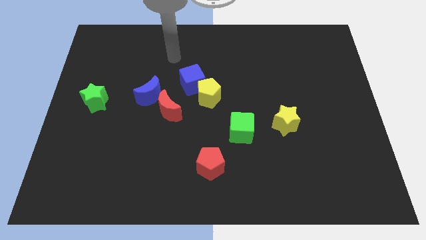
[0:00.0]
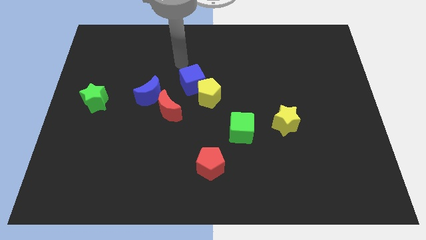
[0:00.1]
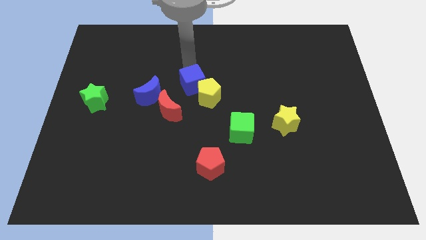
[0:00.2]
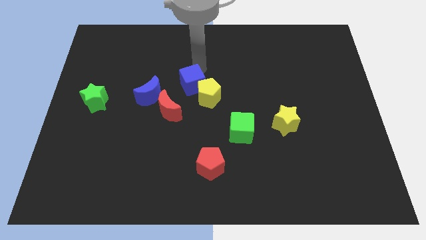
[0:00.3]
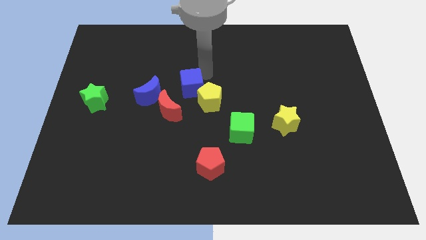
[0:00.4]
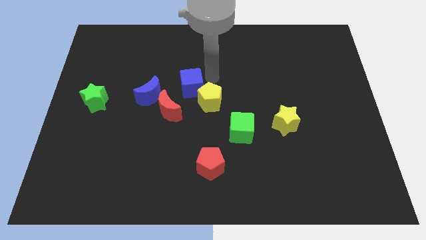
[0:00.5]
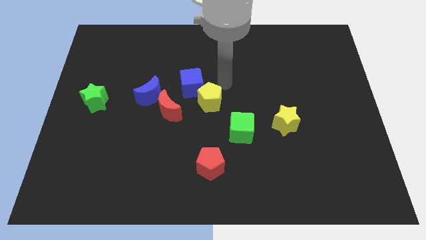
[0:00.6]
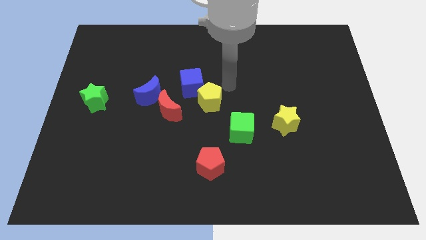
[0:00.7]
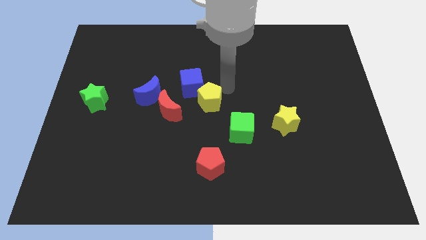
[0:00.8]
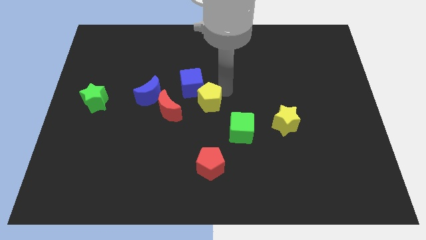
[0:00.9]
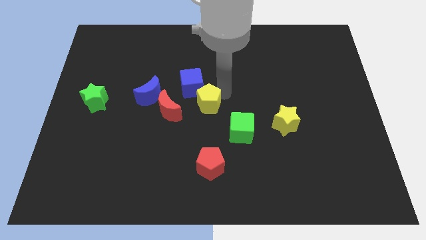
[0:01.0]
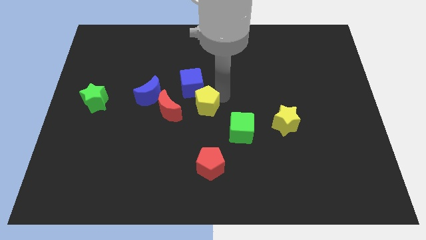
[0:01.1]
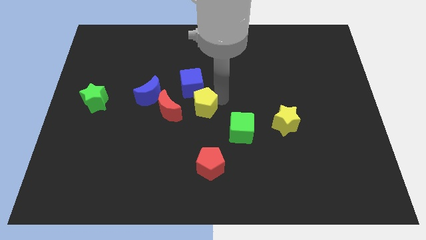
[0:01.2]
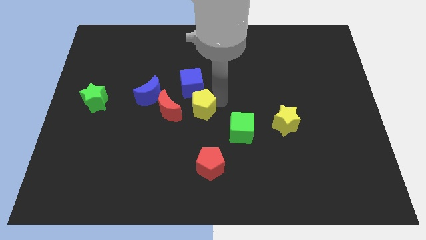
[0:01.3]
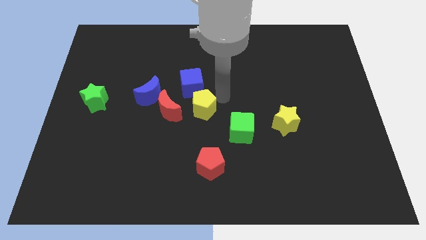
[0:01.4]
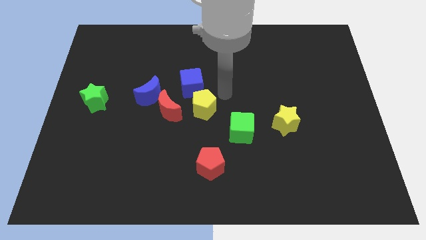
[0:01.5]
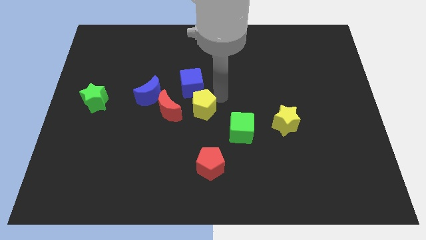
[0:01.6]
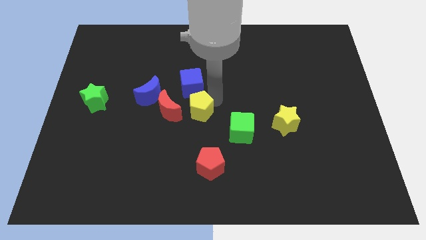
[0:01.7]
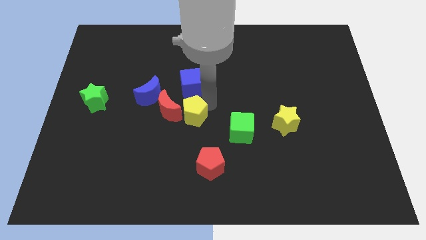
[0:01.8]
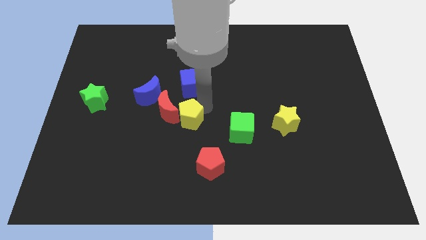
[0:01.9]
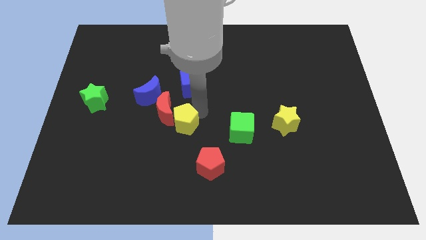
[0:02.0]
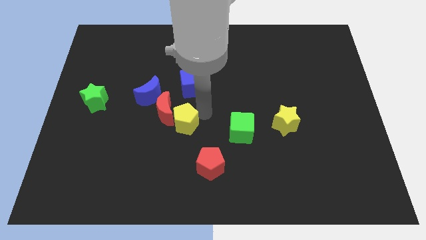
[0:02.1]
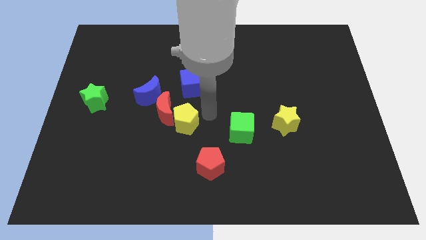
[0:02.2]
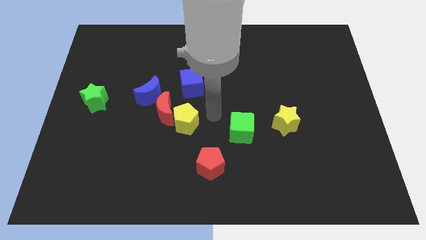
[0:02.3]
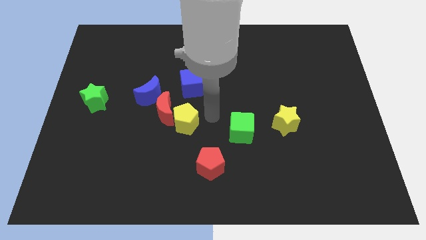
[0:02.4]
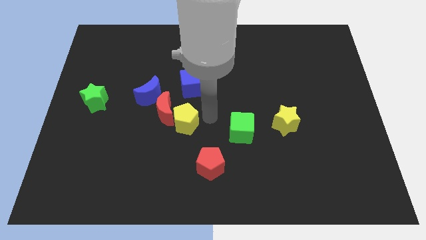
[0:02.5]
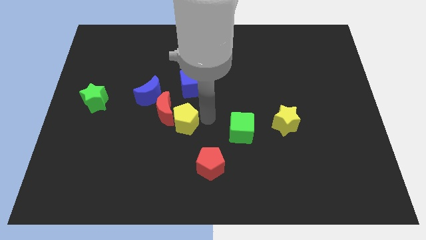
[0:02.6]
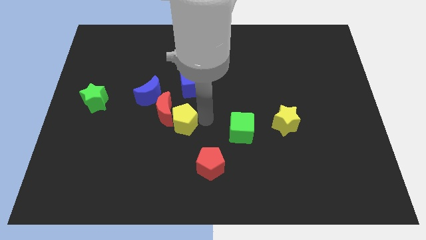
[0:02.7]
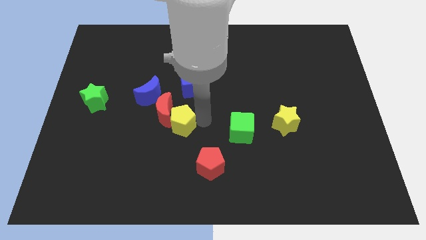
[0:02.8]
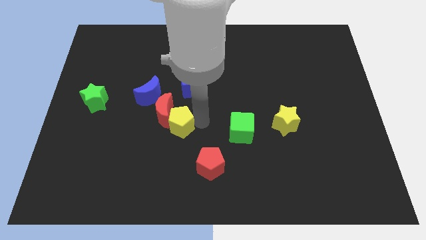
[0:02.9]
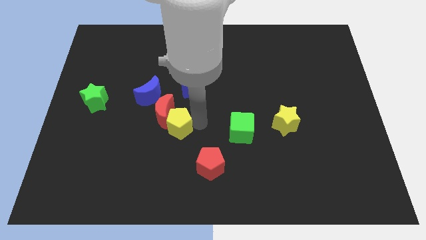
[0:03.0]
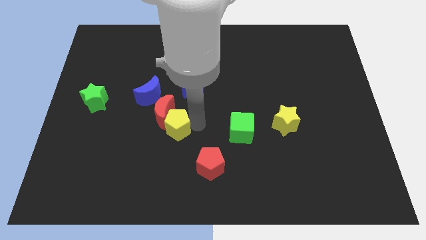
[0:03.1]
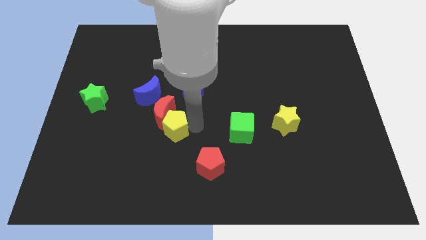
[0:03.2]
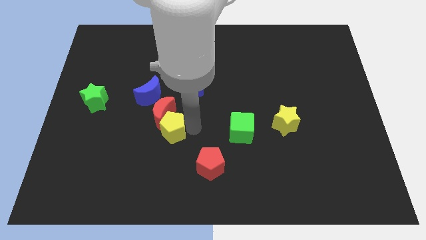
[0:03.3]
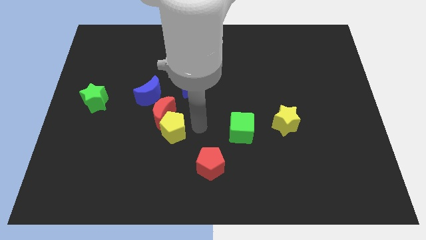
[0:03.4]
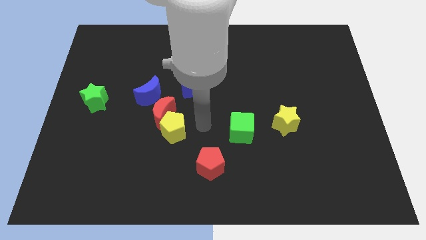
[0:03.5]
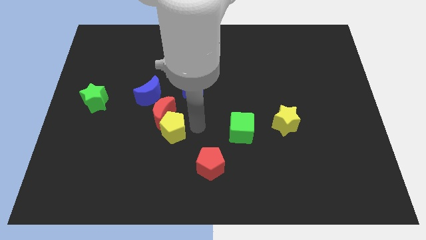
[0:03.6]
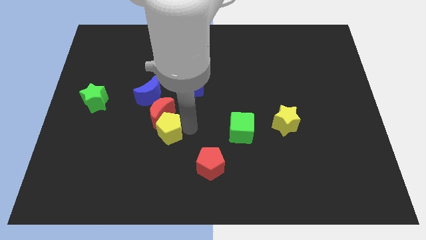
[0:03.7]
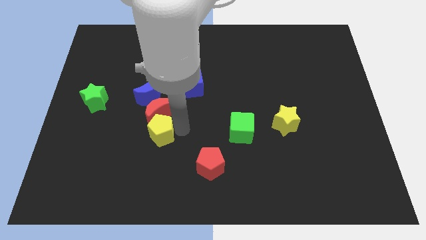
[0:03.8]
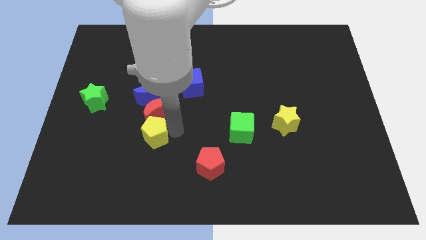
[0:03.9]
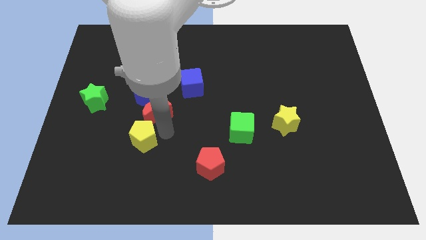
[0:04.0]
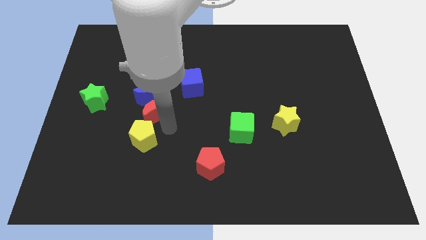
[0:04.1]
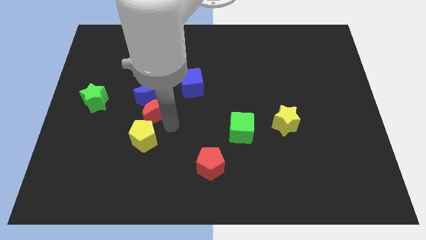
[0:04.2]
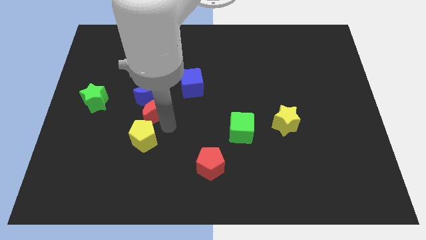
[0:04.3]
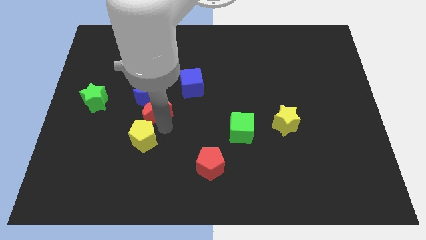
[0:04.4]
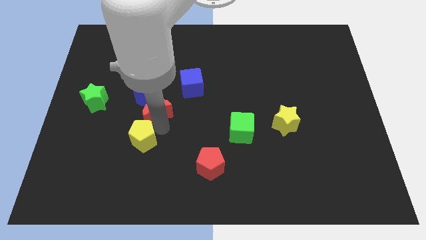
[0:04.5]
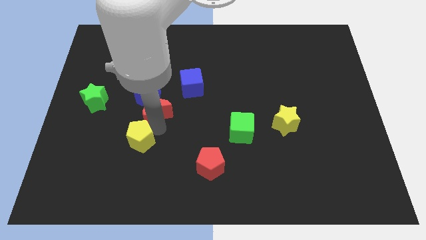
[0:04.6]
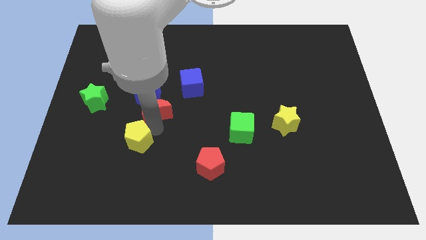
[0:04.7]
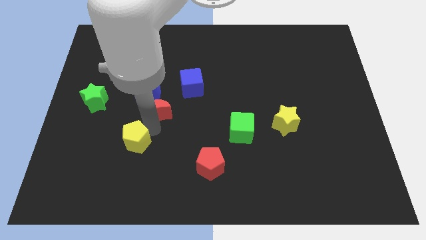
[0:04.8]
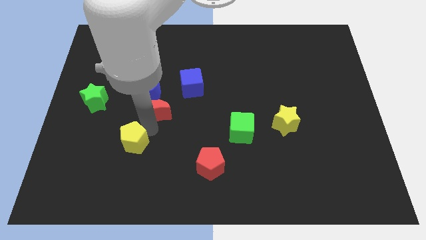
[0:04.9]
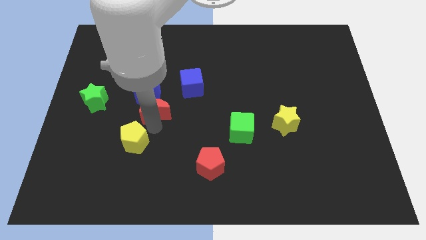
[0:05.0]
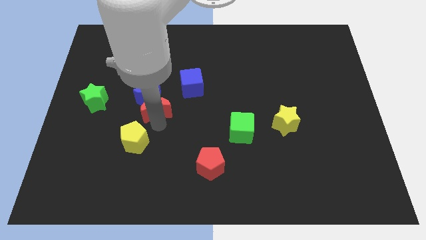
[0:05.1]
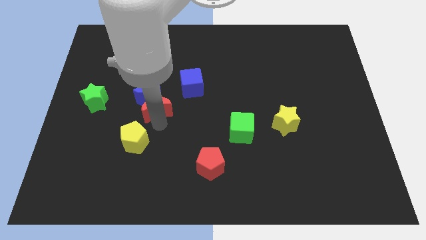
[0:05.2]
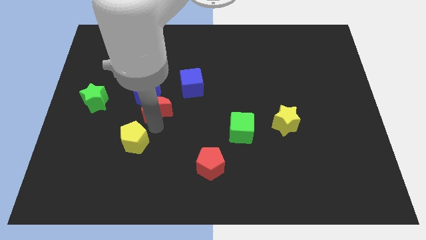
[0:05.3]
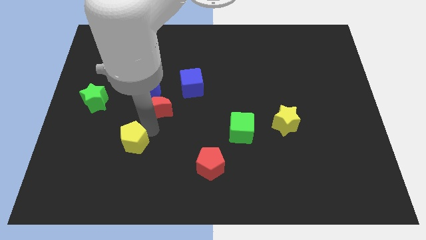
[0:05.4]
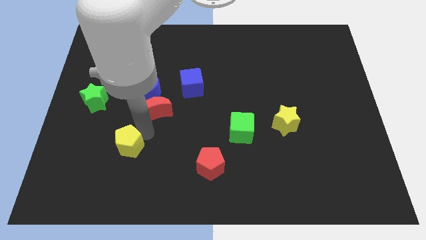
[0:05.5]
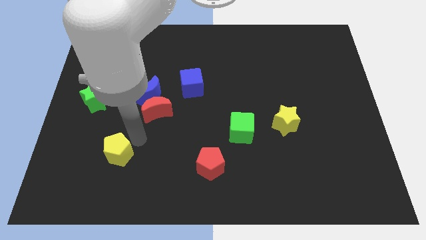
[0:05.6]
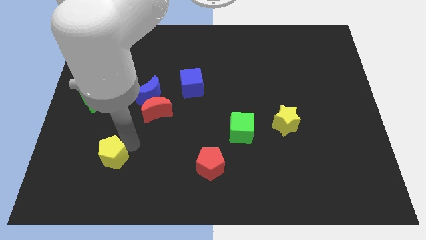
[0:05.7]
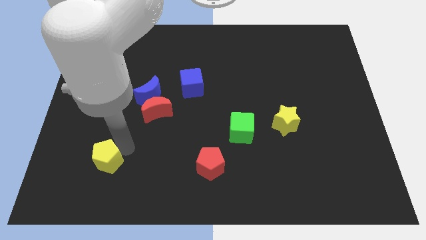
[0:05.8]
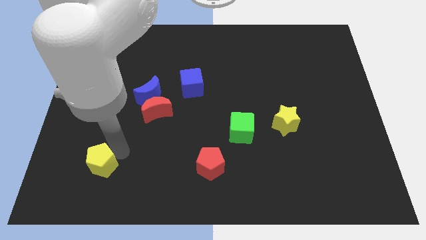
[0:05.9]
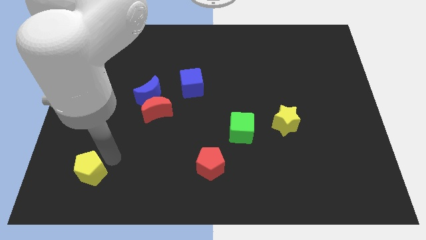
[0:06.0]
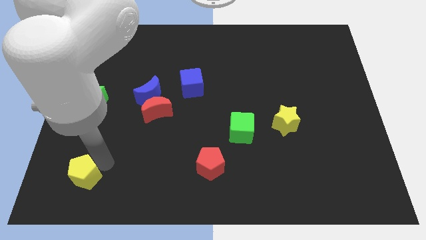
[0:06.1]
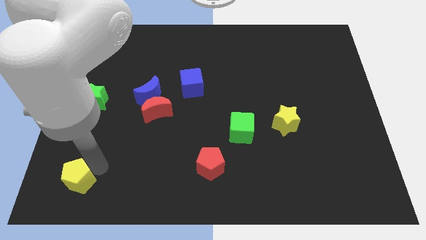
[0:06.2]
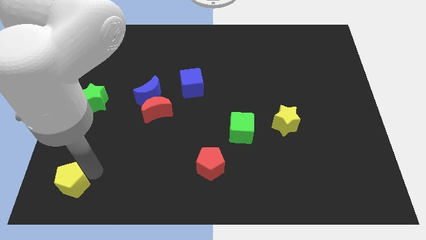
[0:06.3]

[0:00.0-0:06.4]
slide the yellow pentagon to the bottom left of the board

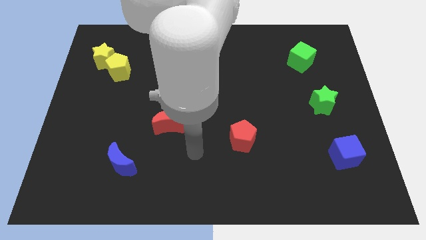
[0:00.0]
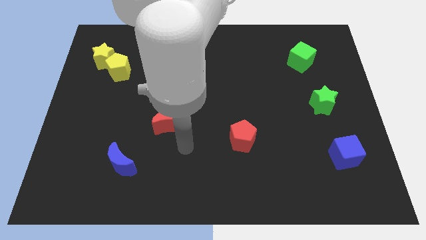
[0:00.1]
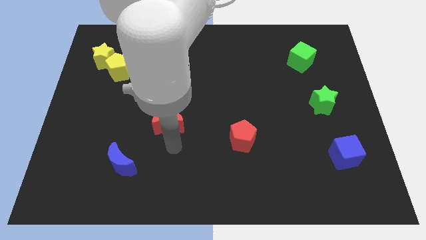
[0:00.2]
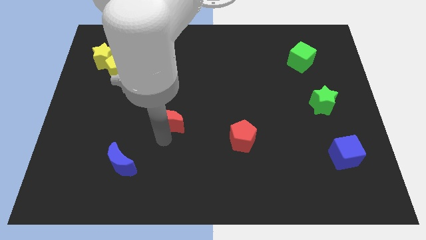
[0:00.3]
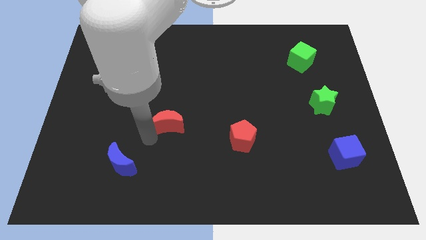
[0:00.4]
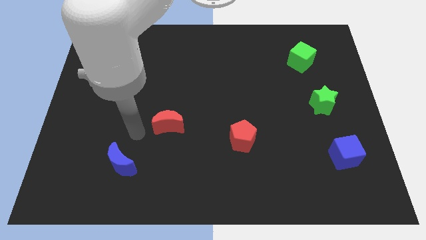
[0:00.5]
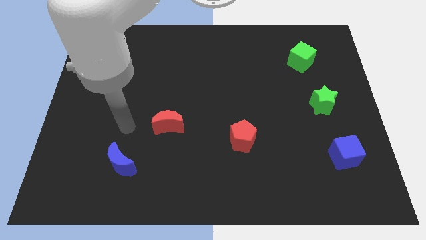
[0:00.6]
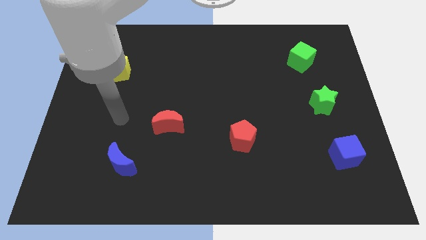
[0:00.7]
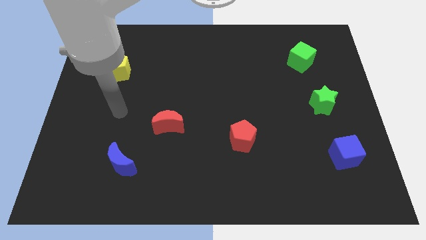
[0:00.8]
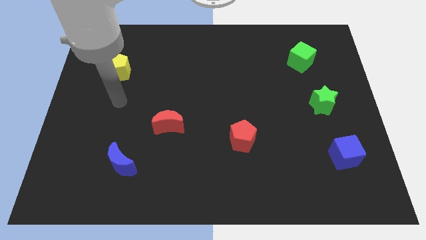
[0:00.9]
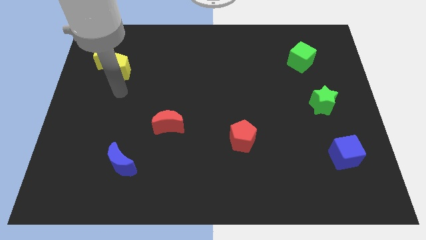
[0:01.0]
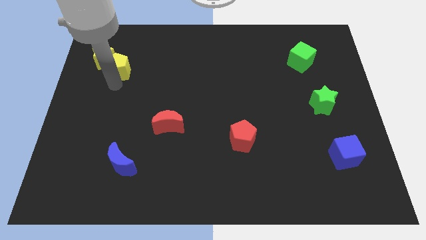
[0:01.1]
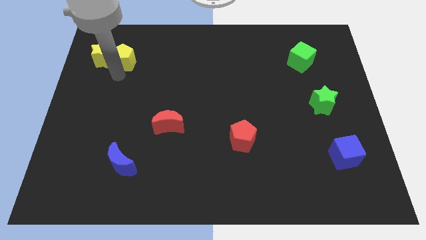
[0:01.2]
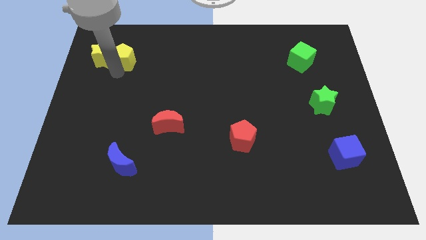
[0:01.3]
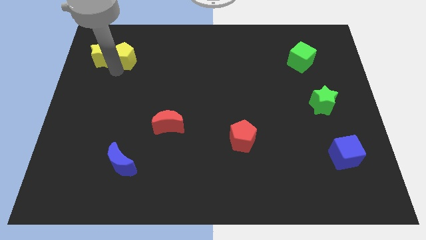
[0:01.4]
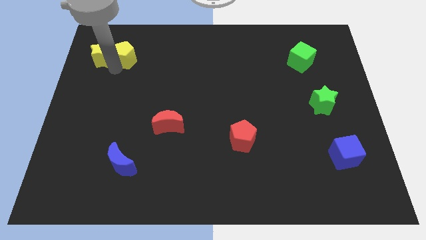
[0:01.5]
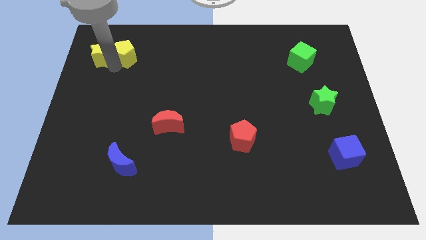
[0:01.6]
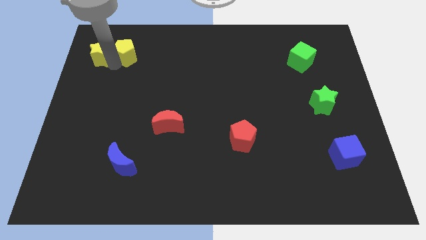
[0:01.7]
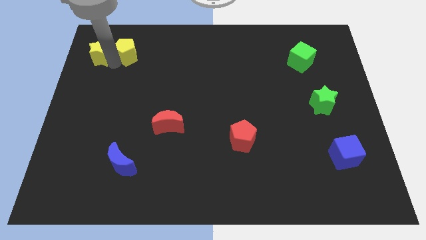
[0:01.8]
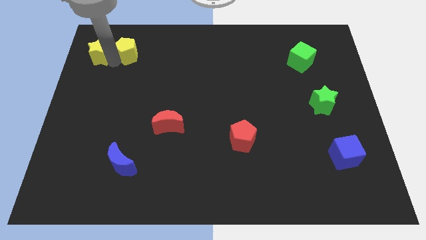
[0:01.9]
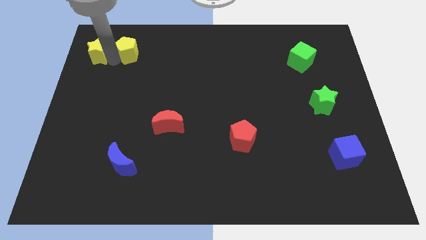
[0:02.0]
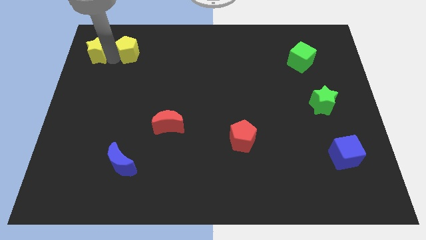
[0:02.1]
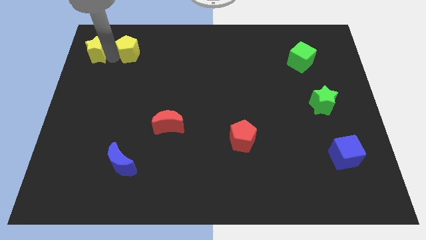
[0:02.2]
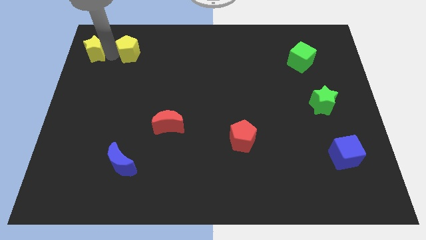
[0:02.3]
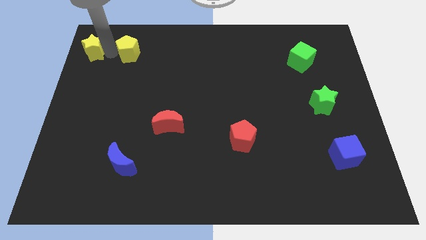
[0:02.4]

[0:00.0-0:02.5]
slide the yellow star to the top left corner
